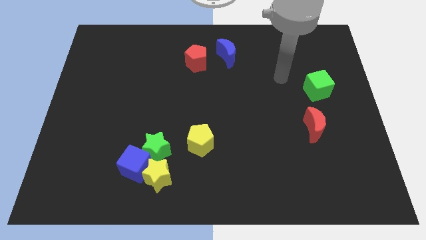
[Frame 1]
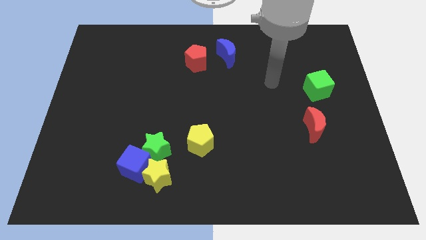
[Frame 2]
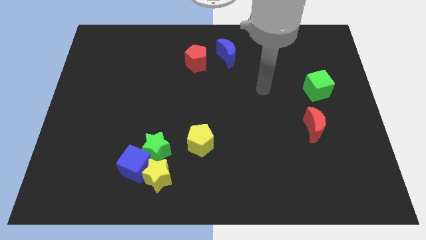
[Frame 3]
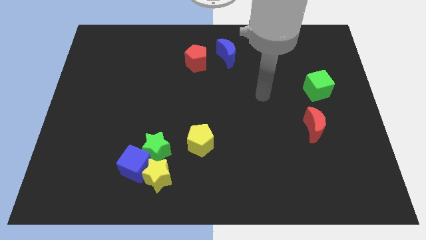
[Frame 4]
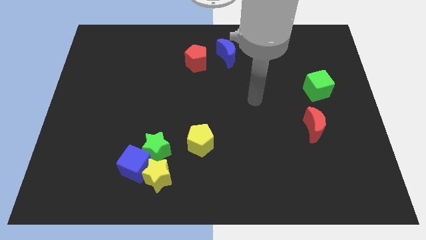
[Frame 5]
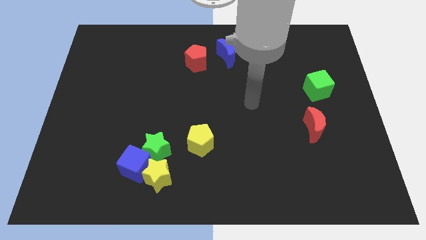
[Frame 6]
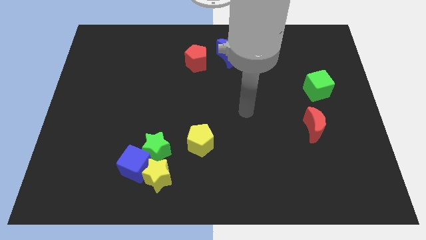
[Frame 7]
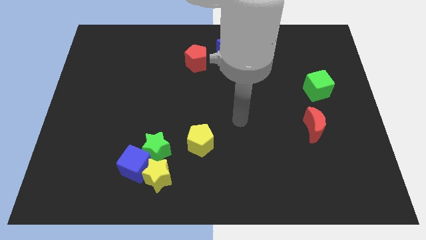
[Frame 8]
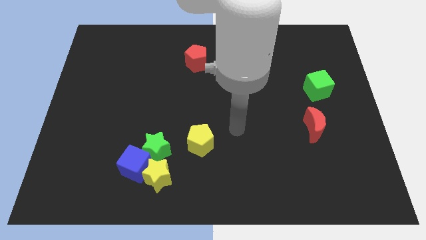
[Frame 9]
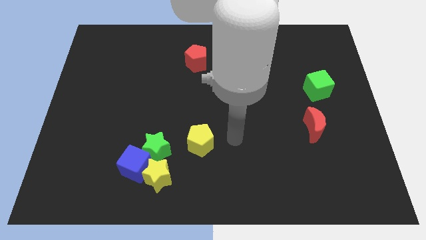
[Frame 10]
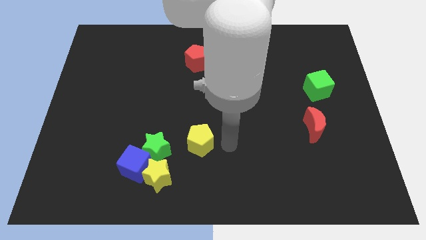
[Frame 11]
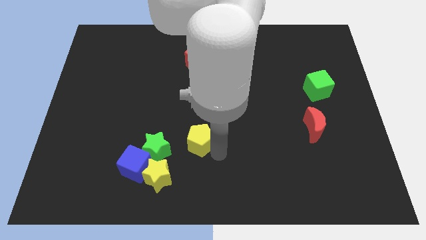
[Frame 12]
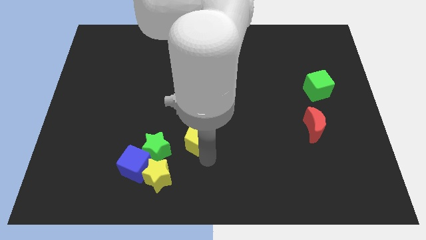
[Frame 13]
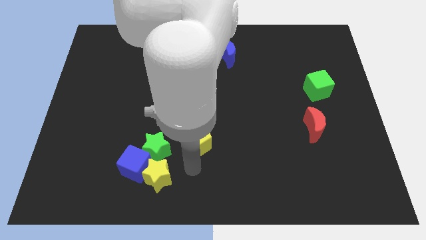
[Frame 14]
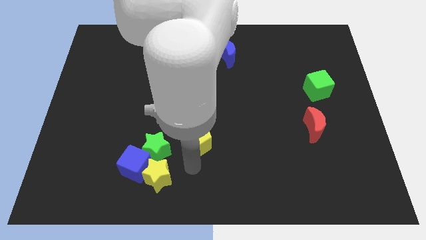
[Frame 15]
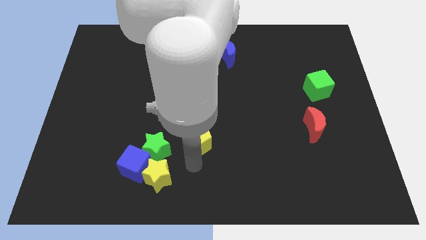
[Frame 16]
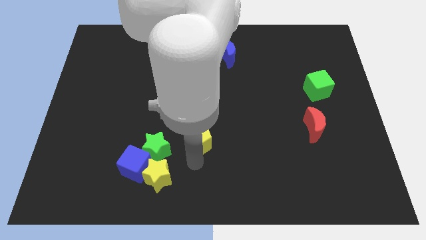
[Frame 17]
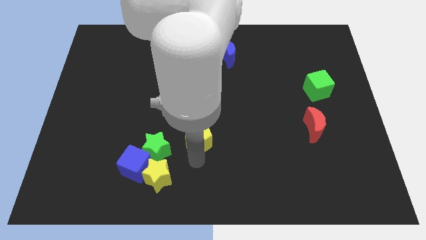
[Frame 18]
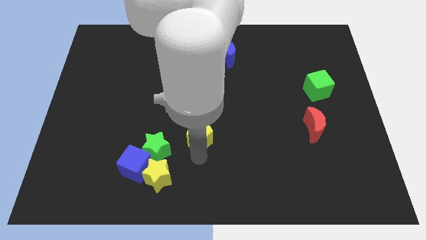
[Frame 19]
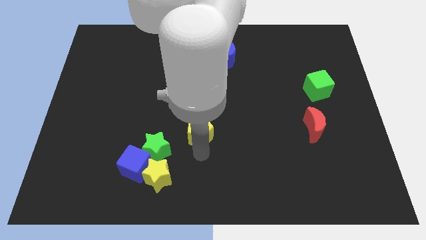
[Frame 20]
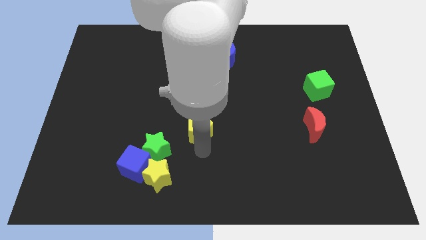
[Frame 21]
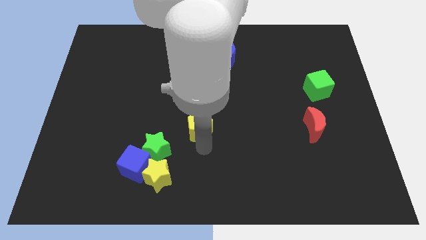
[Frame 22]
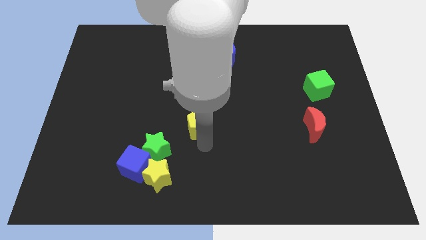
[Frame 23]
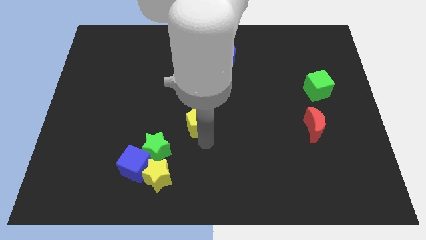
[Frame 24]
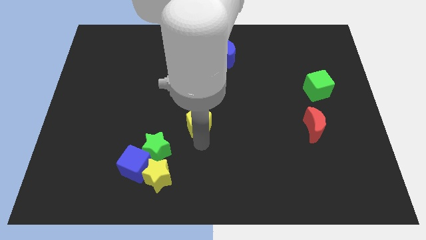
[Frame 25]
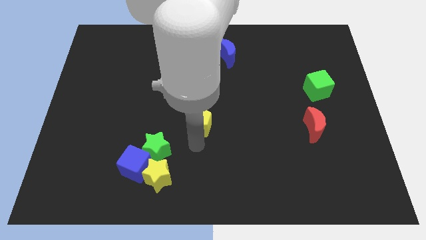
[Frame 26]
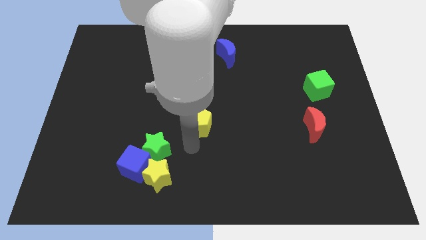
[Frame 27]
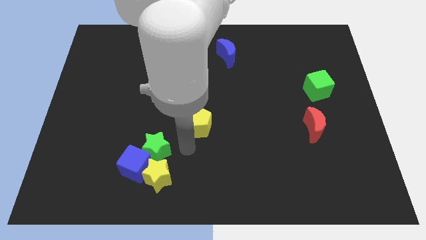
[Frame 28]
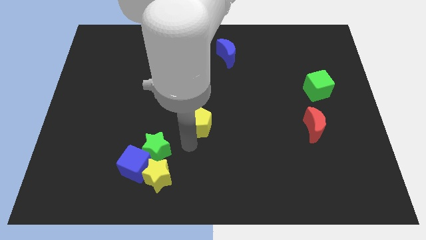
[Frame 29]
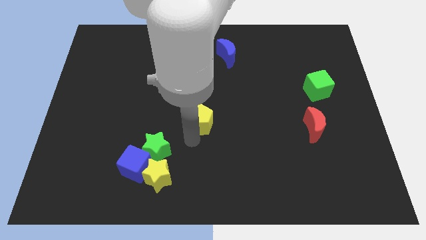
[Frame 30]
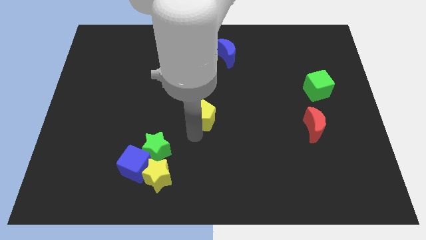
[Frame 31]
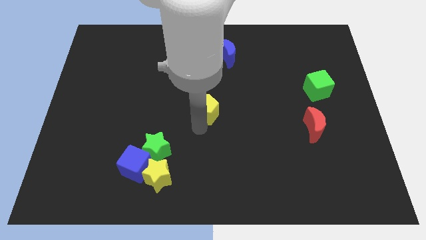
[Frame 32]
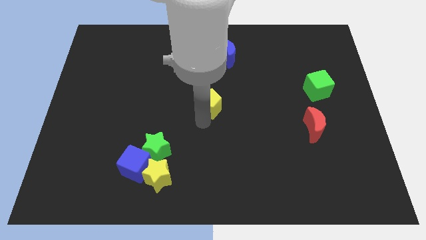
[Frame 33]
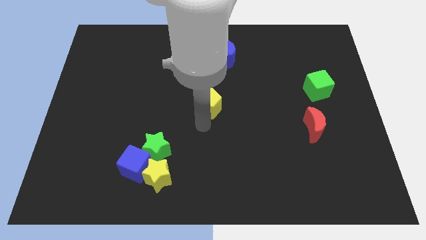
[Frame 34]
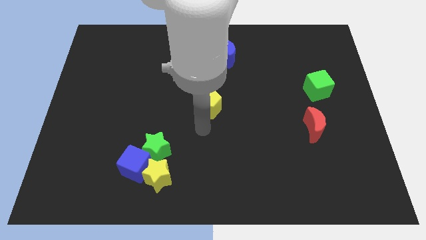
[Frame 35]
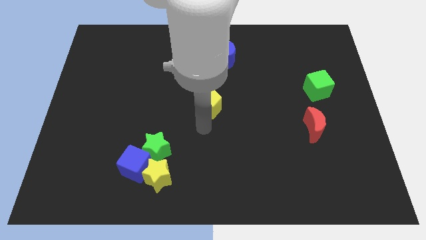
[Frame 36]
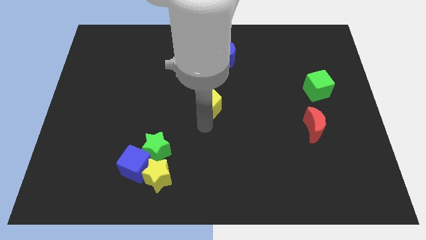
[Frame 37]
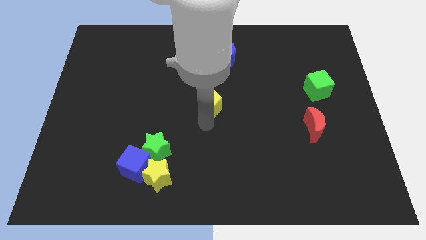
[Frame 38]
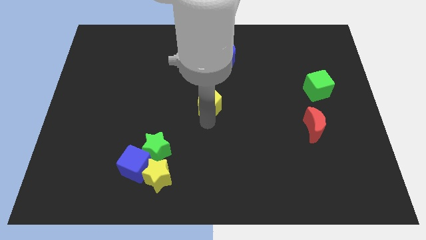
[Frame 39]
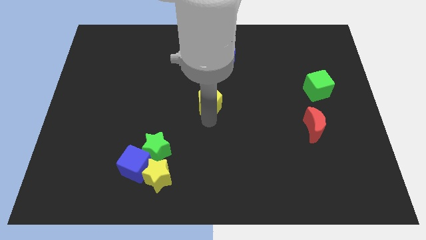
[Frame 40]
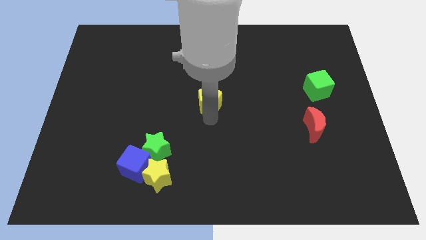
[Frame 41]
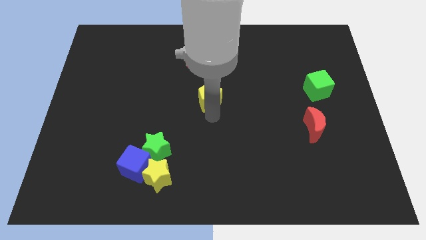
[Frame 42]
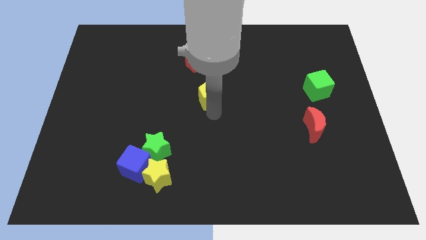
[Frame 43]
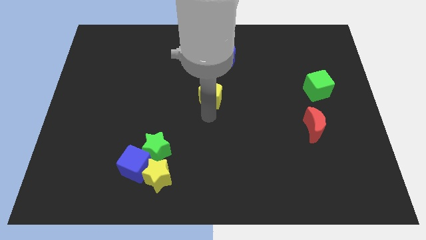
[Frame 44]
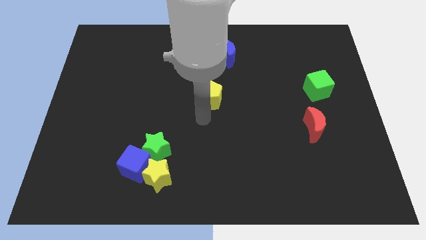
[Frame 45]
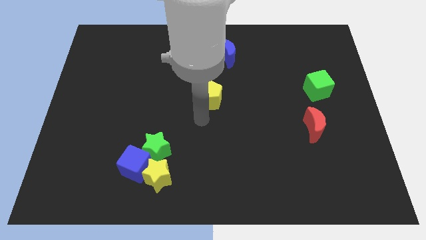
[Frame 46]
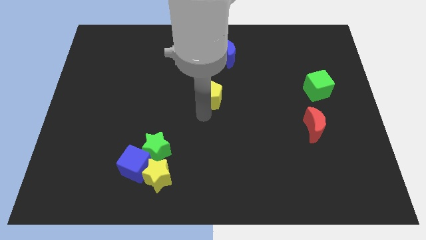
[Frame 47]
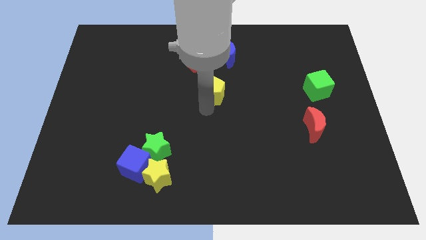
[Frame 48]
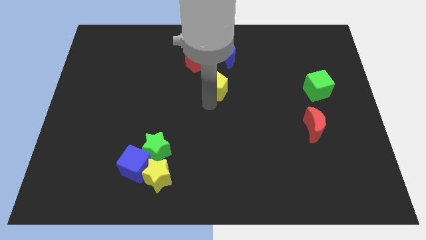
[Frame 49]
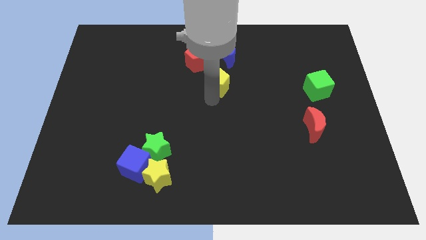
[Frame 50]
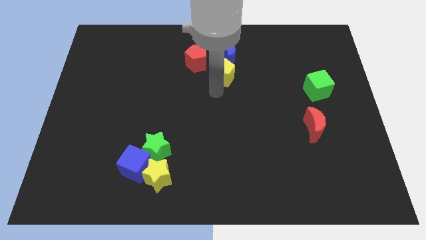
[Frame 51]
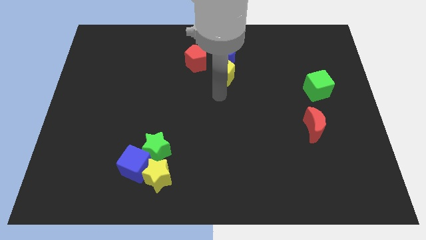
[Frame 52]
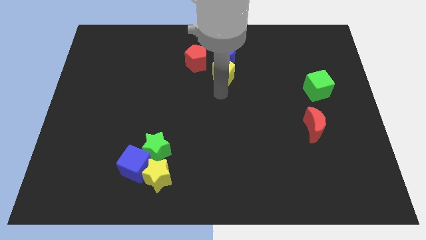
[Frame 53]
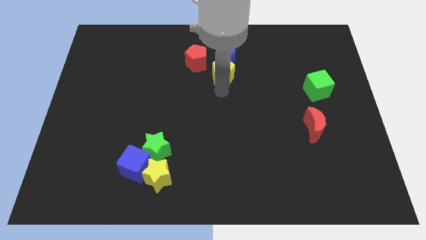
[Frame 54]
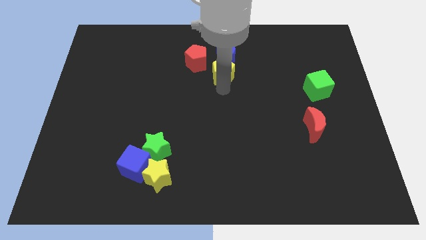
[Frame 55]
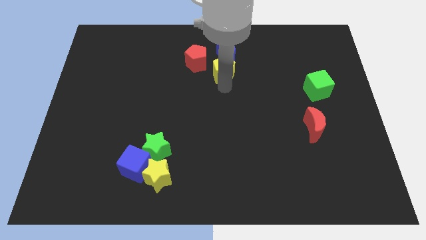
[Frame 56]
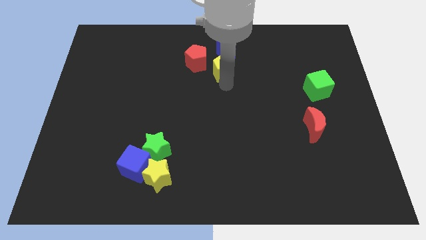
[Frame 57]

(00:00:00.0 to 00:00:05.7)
move the yellow pentagon close to the blue moon

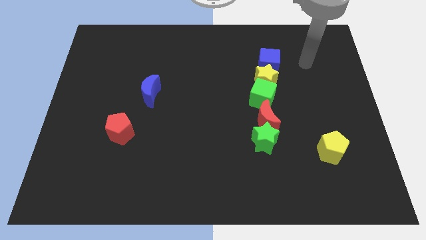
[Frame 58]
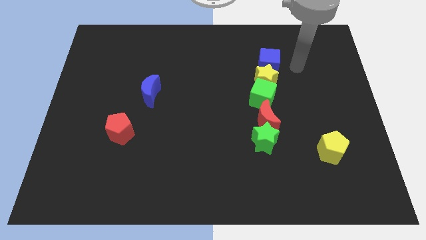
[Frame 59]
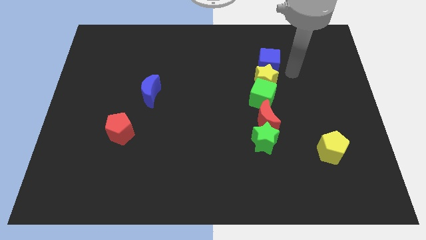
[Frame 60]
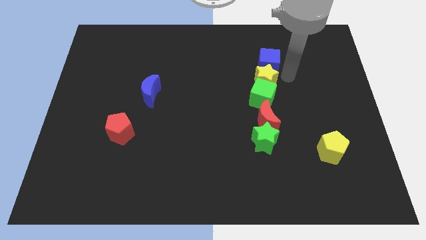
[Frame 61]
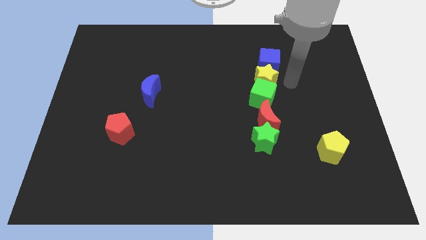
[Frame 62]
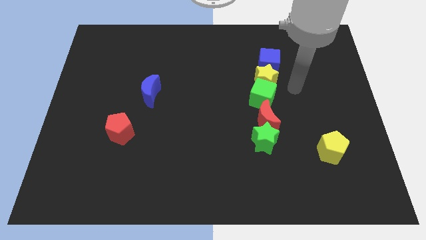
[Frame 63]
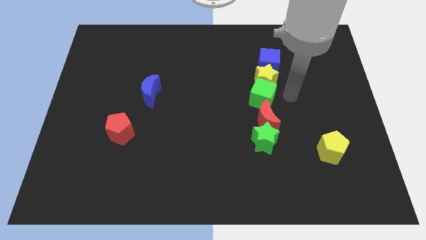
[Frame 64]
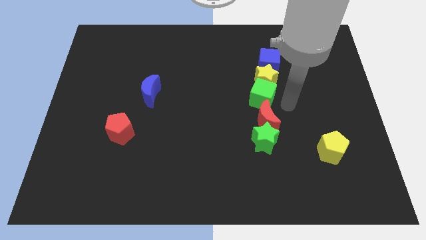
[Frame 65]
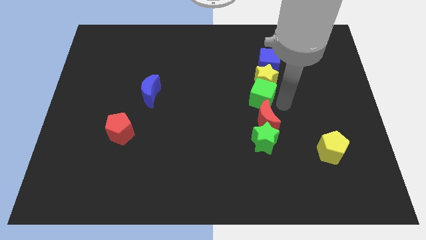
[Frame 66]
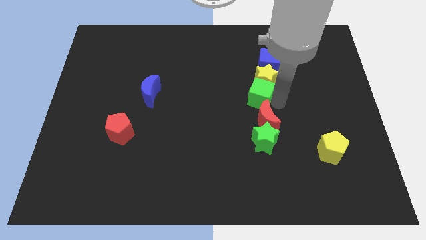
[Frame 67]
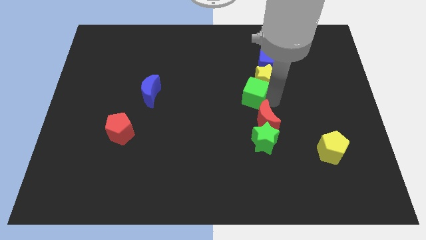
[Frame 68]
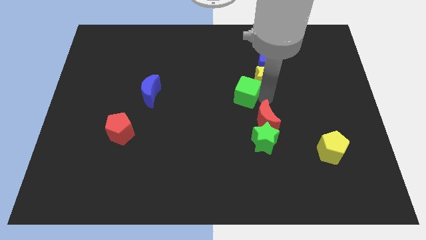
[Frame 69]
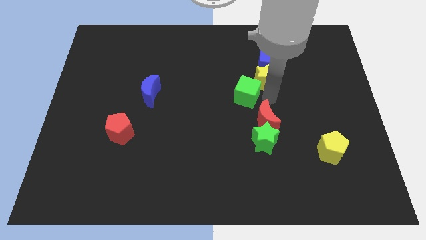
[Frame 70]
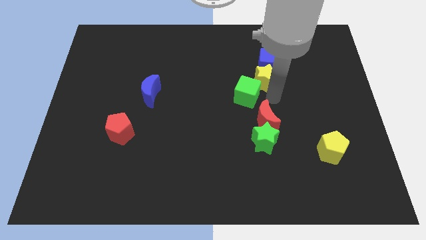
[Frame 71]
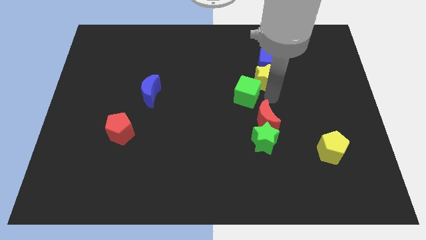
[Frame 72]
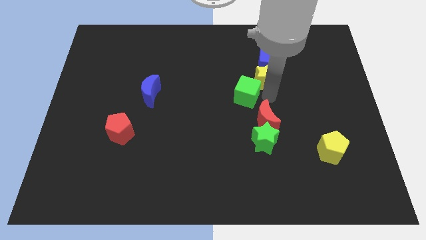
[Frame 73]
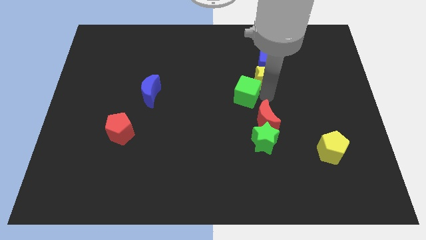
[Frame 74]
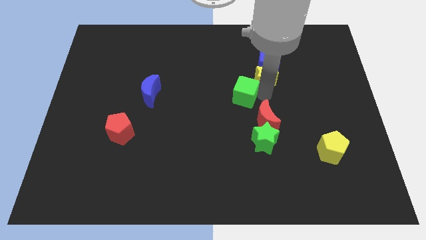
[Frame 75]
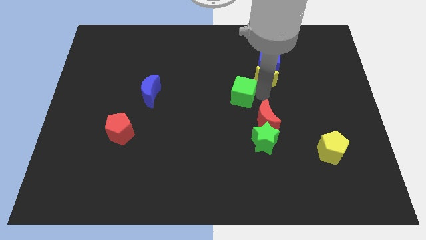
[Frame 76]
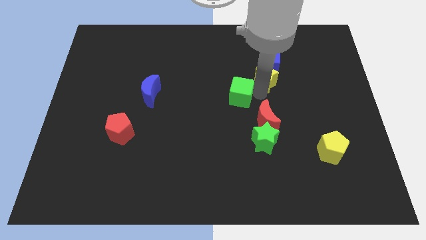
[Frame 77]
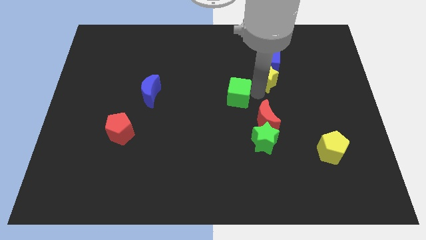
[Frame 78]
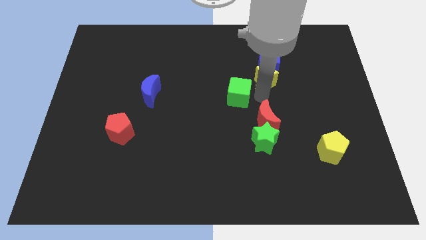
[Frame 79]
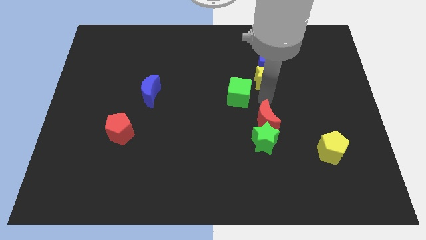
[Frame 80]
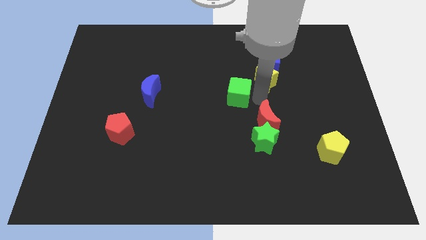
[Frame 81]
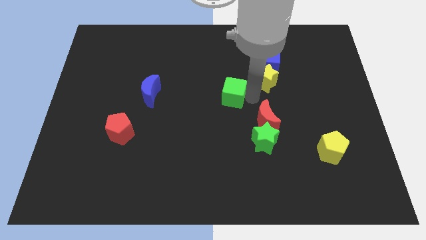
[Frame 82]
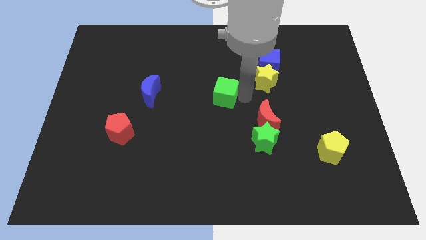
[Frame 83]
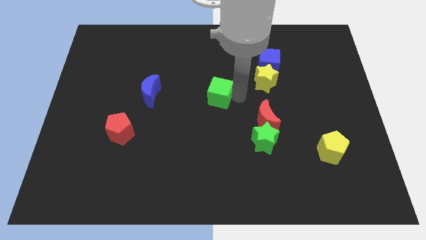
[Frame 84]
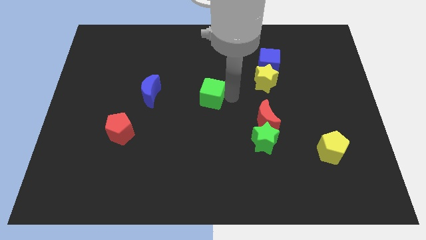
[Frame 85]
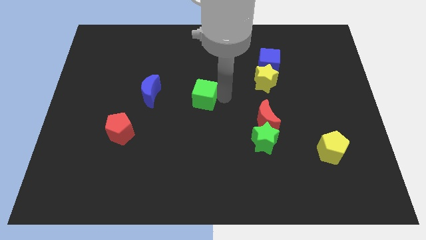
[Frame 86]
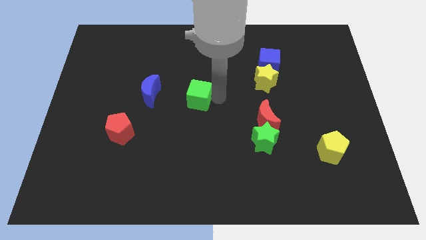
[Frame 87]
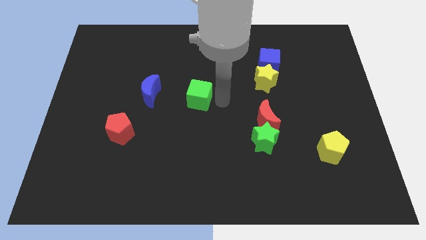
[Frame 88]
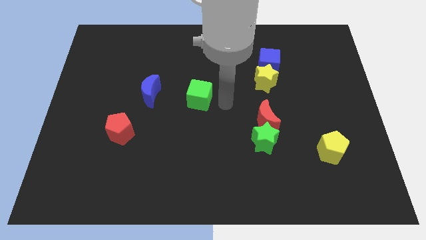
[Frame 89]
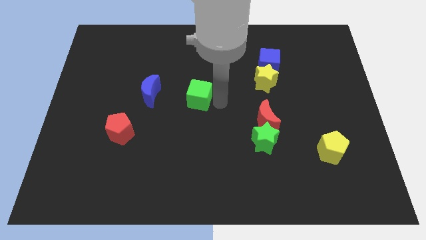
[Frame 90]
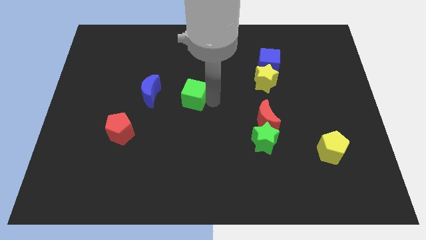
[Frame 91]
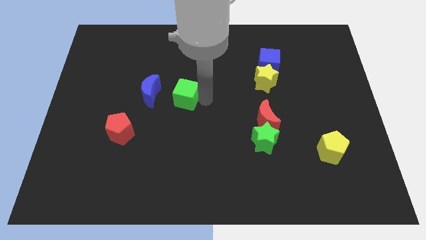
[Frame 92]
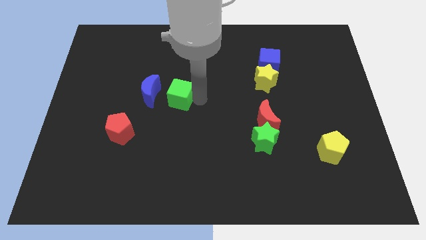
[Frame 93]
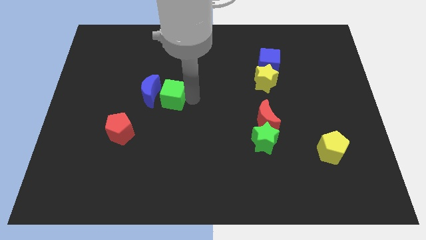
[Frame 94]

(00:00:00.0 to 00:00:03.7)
slide the green cube to the blue moon
